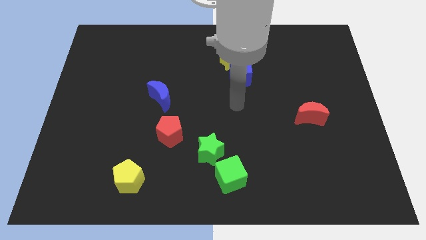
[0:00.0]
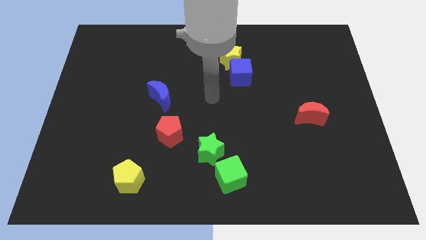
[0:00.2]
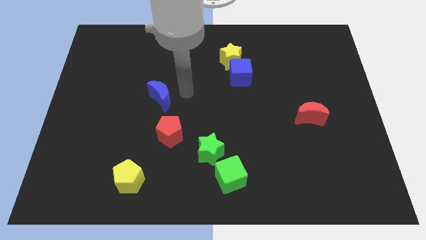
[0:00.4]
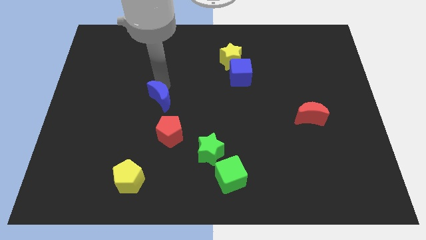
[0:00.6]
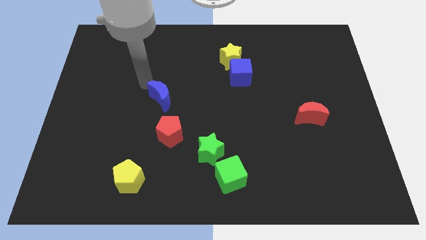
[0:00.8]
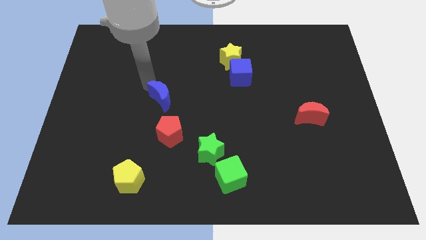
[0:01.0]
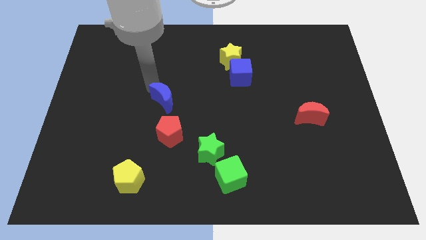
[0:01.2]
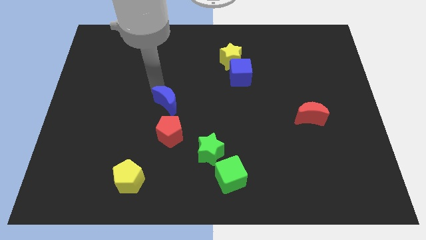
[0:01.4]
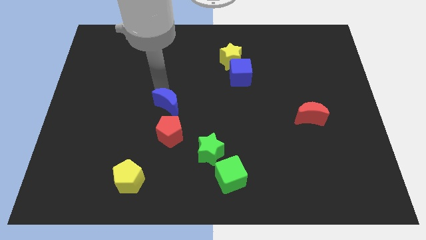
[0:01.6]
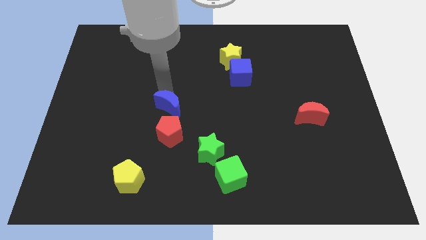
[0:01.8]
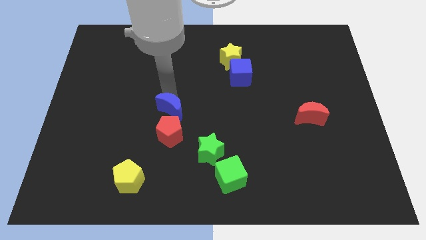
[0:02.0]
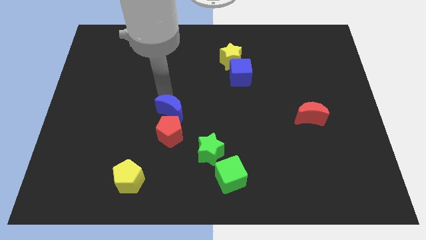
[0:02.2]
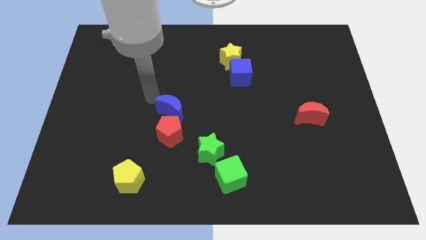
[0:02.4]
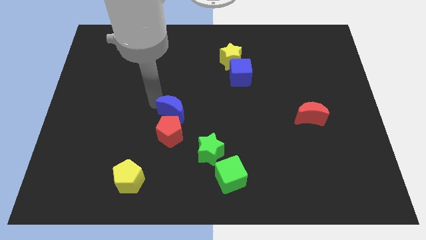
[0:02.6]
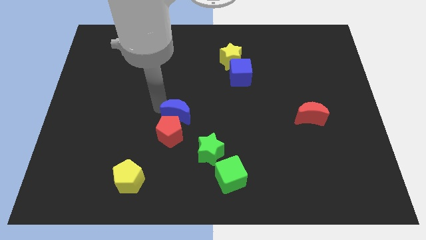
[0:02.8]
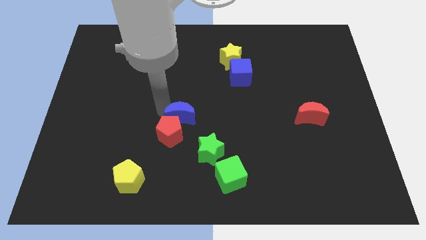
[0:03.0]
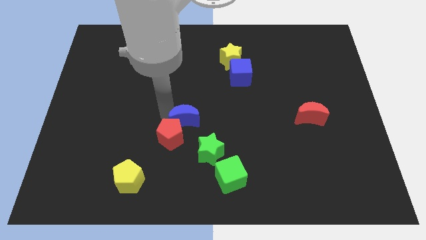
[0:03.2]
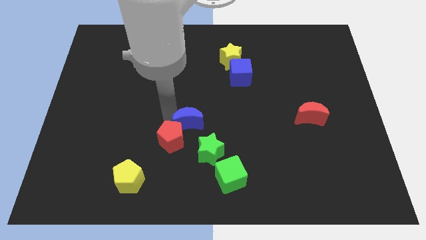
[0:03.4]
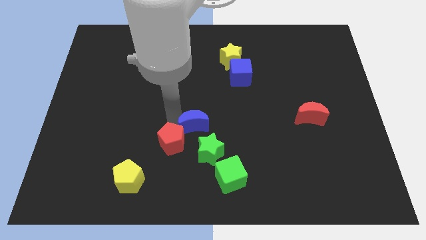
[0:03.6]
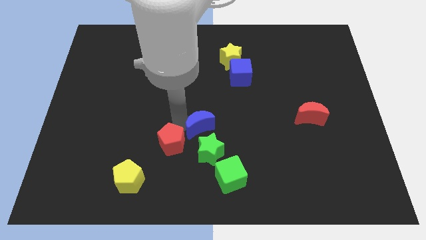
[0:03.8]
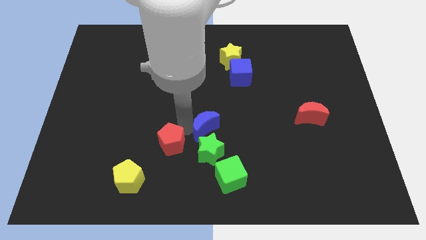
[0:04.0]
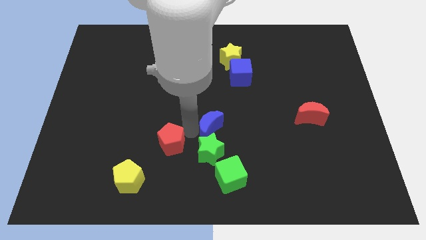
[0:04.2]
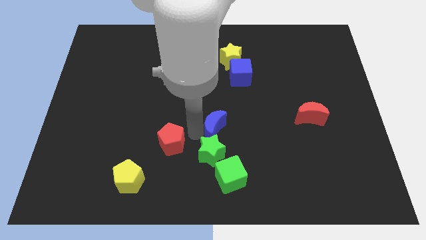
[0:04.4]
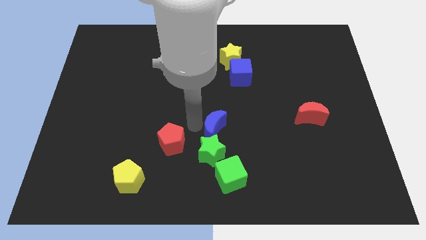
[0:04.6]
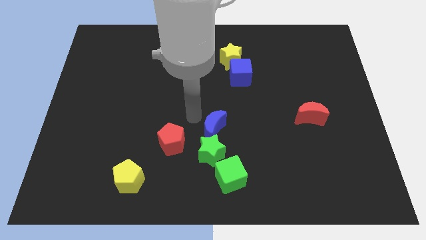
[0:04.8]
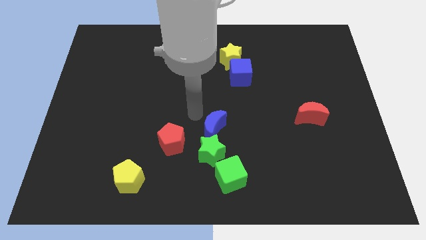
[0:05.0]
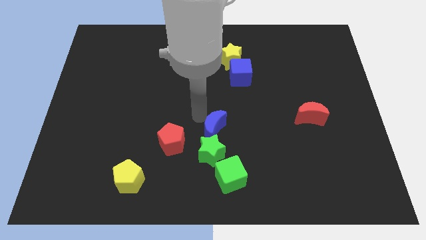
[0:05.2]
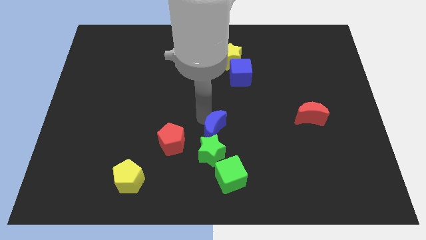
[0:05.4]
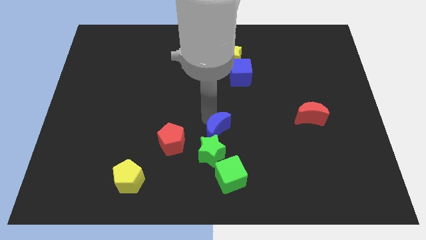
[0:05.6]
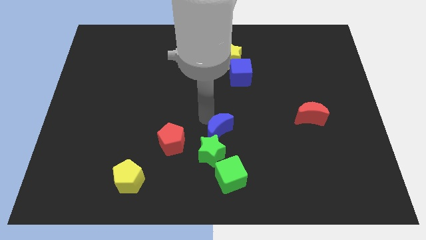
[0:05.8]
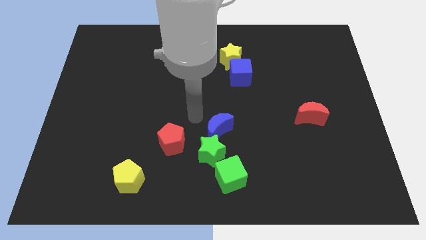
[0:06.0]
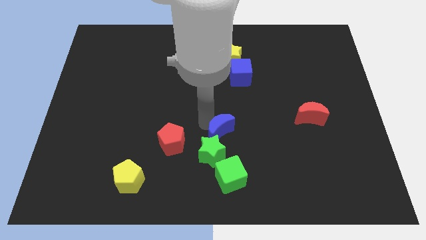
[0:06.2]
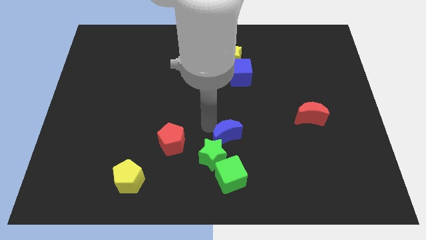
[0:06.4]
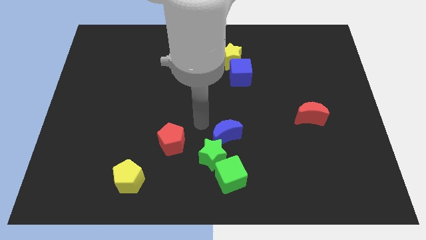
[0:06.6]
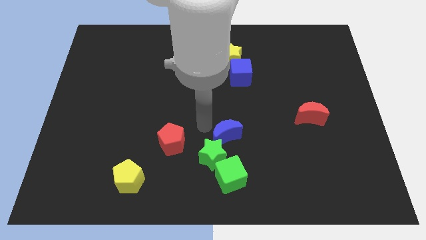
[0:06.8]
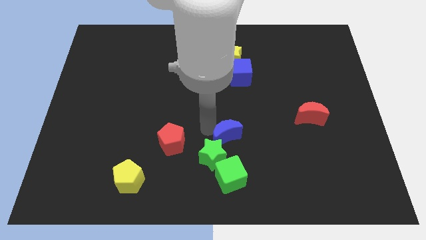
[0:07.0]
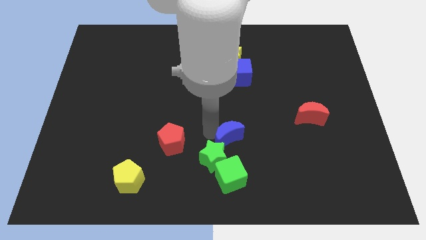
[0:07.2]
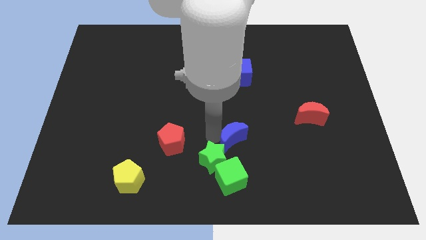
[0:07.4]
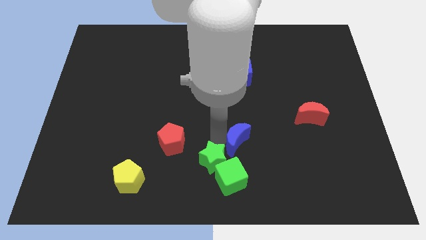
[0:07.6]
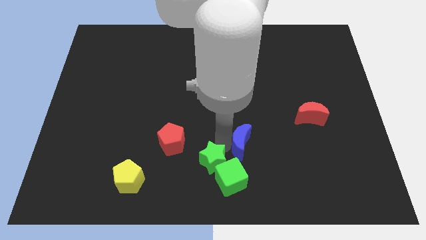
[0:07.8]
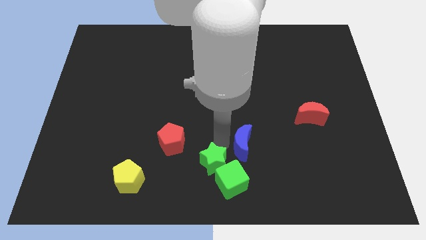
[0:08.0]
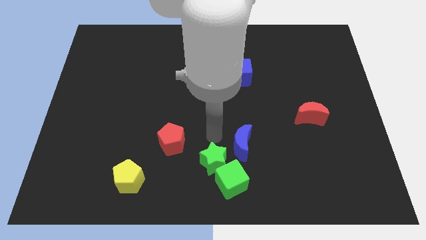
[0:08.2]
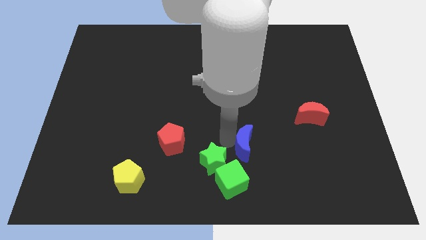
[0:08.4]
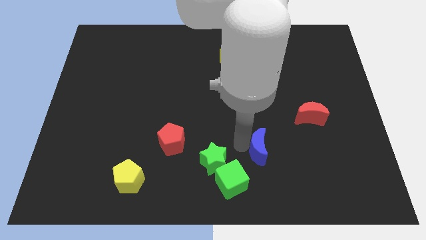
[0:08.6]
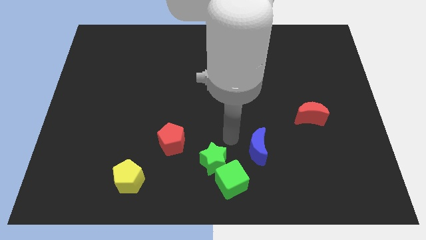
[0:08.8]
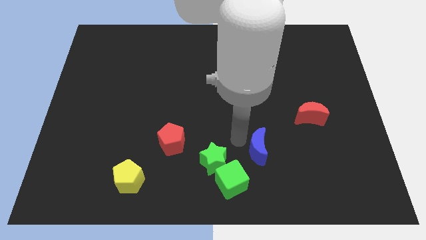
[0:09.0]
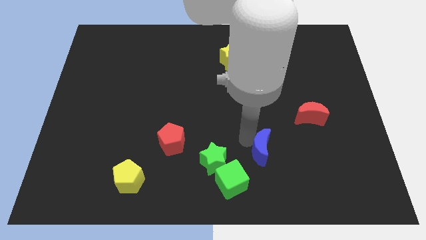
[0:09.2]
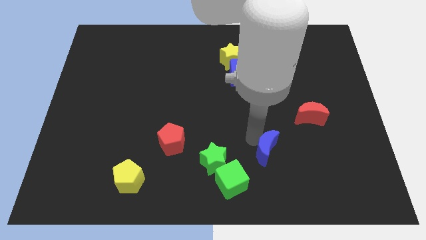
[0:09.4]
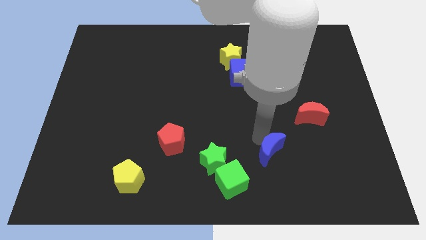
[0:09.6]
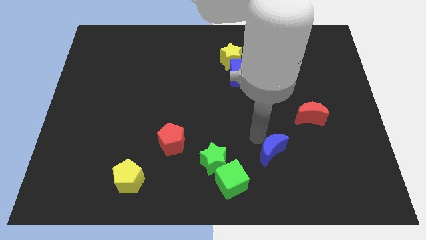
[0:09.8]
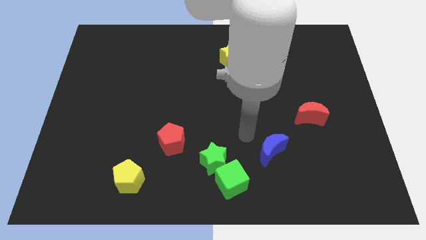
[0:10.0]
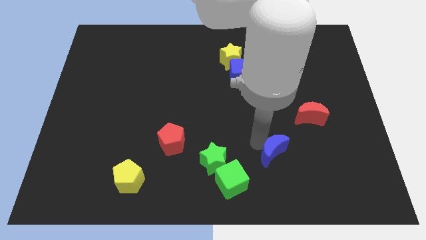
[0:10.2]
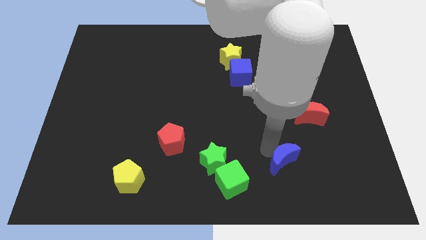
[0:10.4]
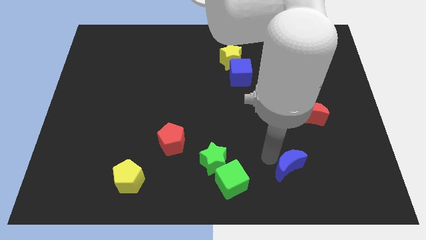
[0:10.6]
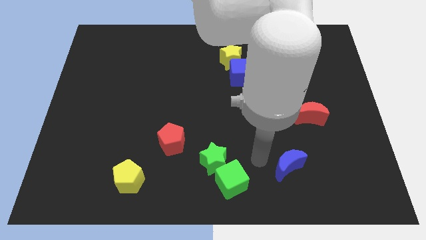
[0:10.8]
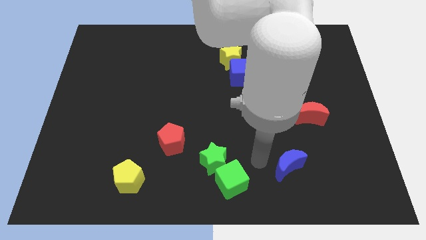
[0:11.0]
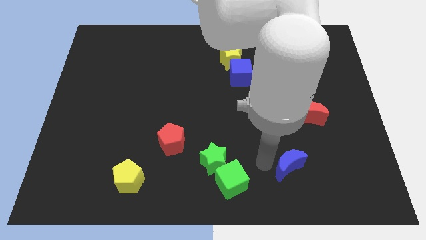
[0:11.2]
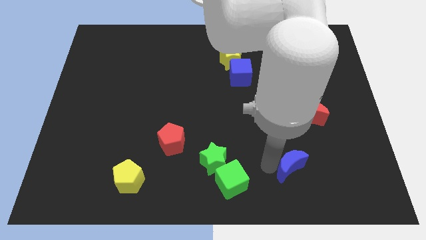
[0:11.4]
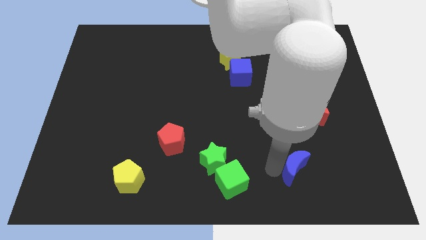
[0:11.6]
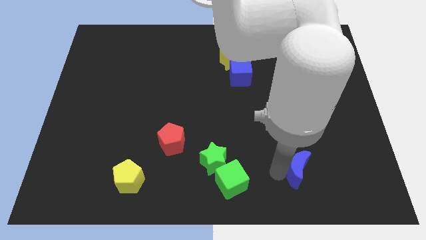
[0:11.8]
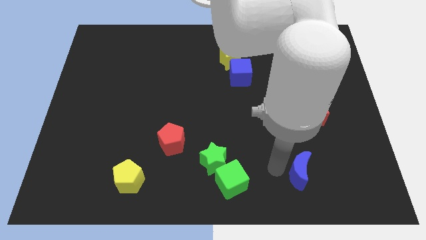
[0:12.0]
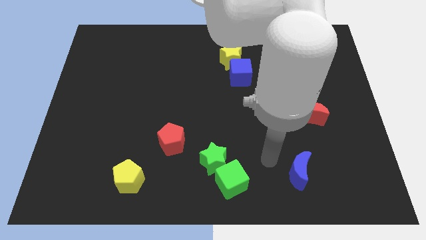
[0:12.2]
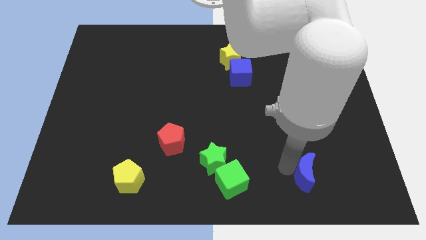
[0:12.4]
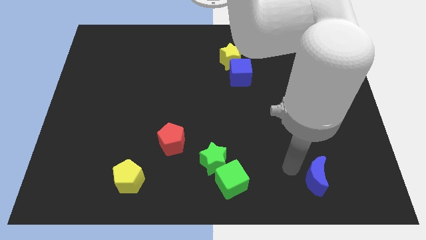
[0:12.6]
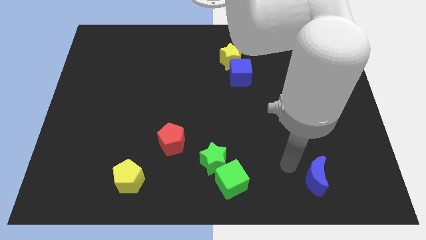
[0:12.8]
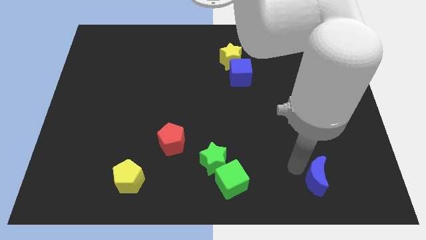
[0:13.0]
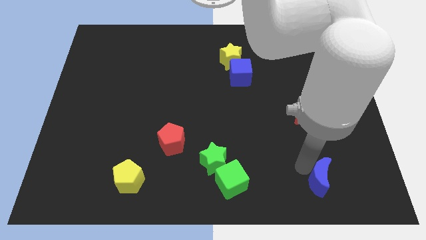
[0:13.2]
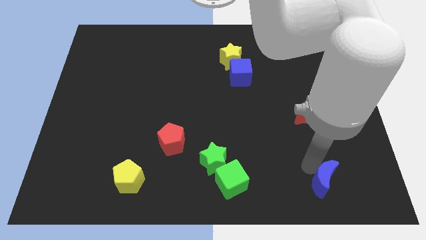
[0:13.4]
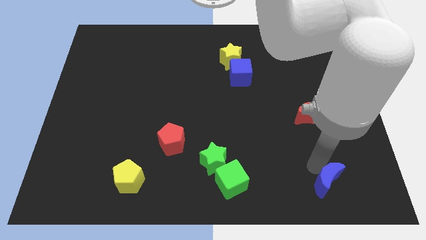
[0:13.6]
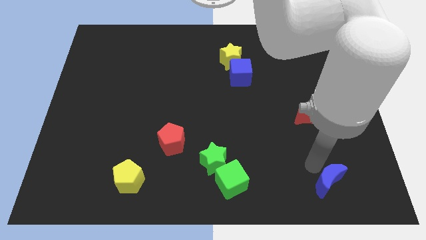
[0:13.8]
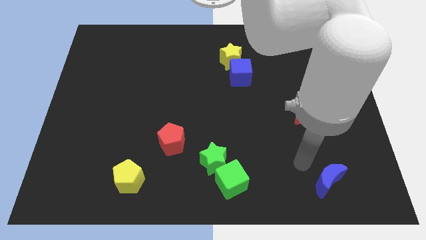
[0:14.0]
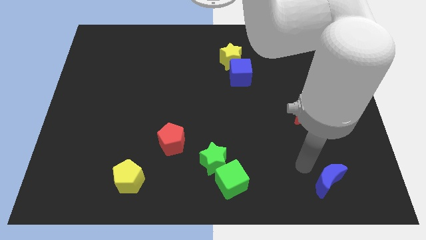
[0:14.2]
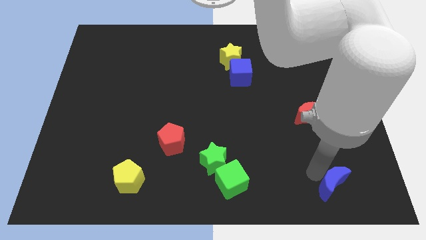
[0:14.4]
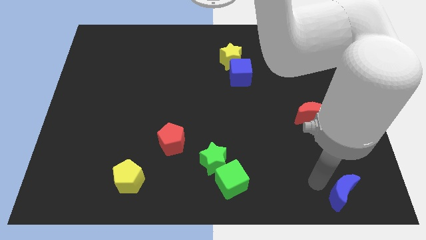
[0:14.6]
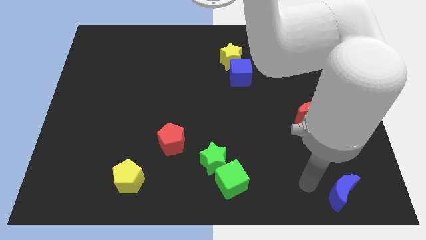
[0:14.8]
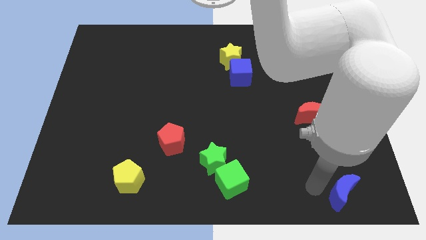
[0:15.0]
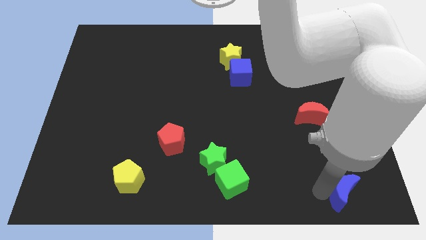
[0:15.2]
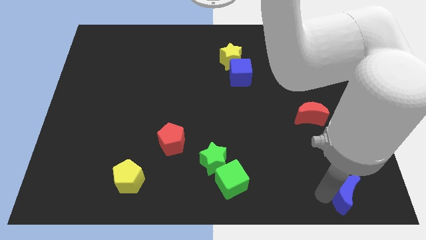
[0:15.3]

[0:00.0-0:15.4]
put the blue moon to the lower right corner
